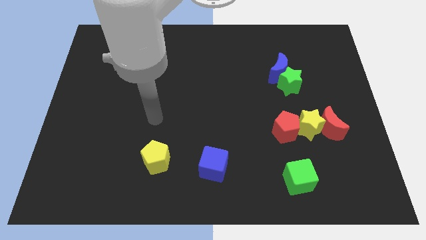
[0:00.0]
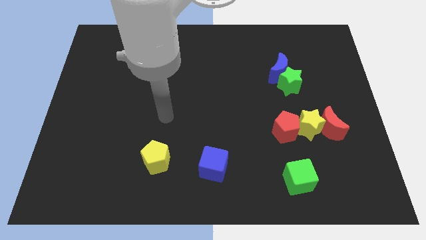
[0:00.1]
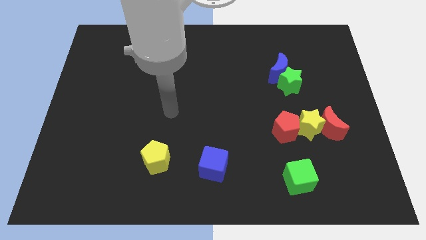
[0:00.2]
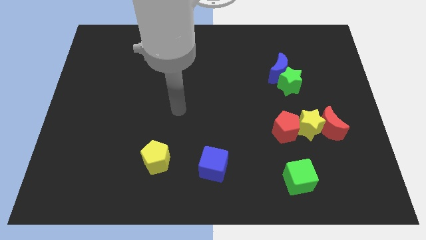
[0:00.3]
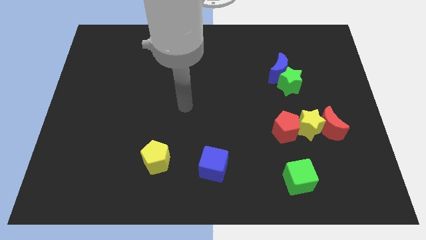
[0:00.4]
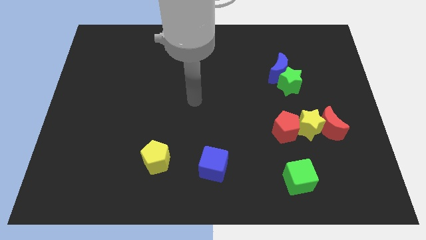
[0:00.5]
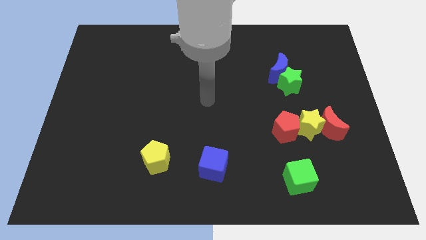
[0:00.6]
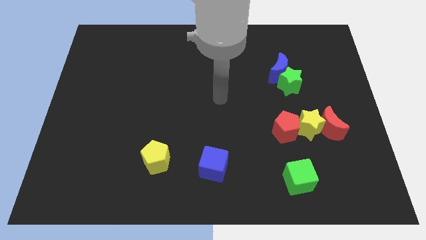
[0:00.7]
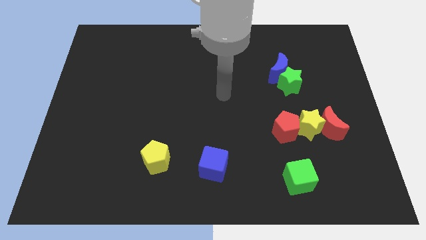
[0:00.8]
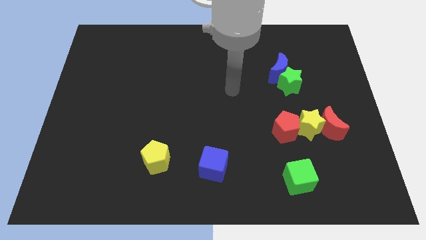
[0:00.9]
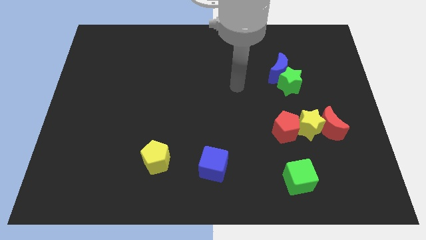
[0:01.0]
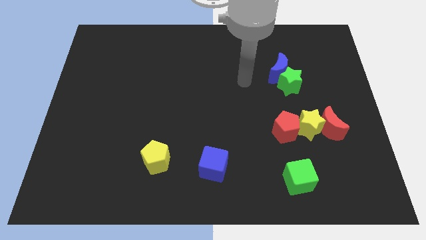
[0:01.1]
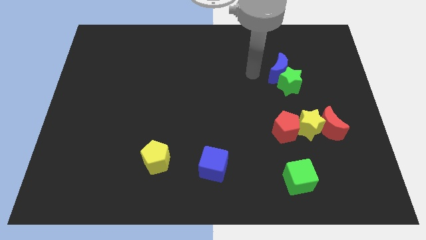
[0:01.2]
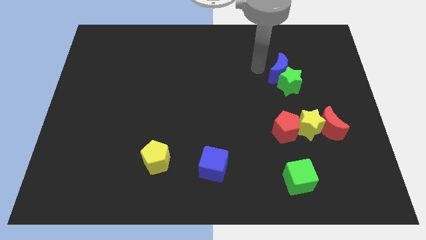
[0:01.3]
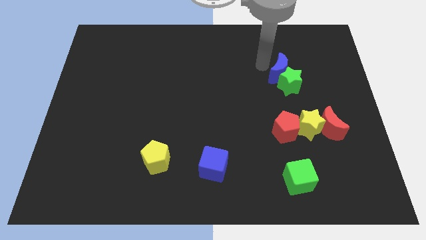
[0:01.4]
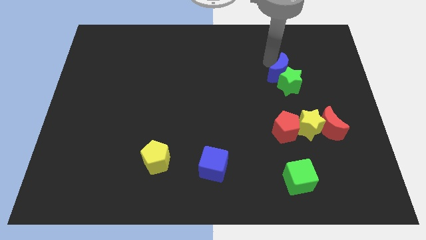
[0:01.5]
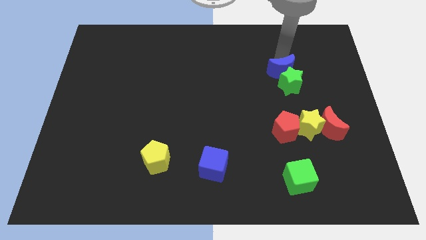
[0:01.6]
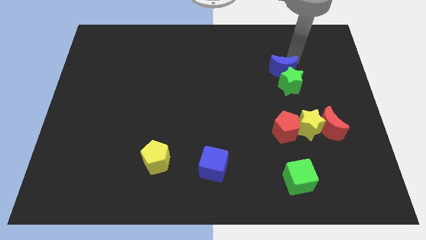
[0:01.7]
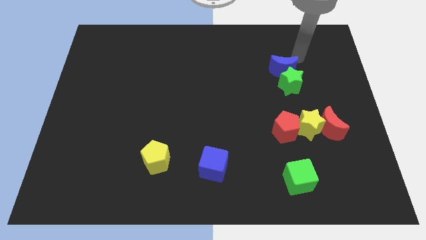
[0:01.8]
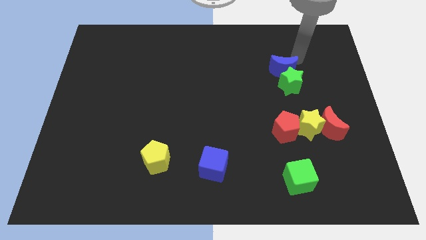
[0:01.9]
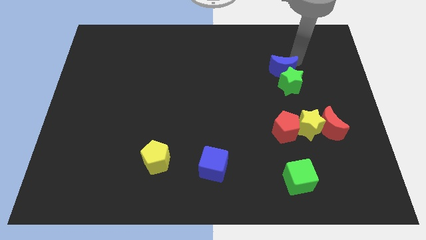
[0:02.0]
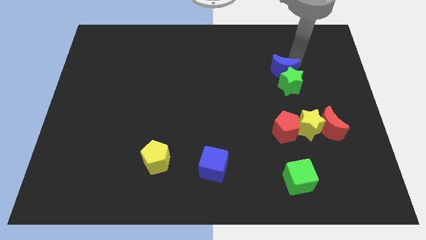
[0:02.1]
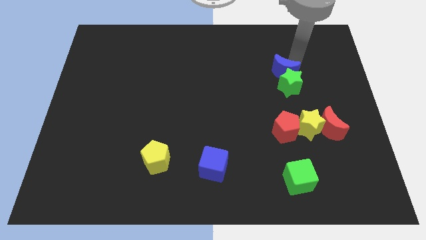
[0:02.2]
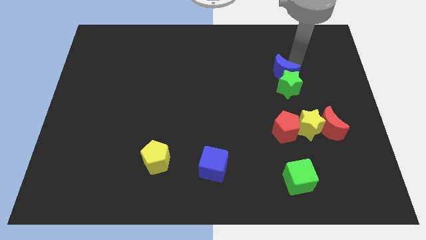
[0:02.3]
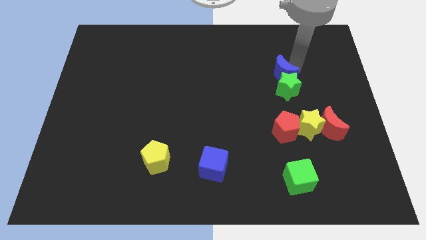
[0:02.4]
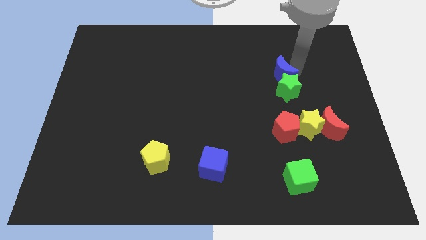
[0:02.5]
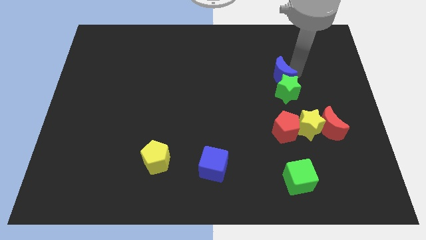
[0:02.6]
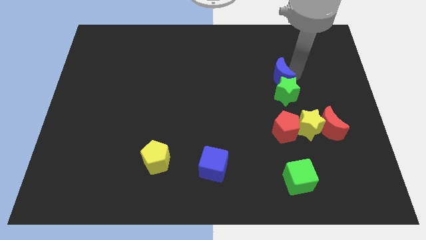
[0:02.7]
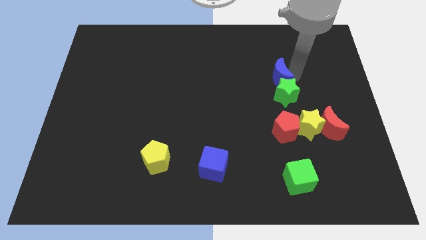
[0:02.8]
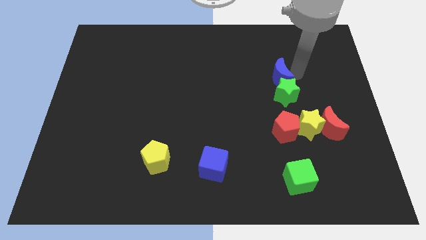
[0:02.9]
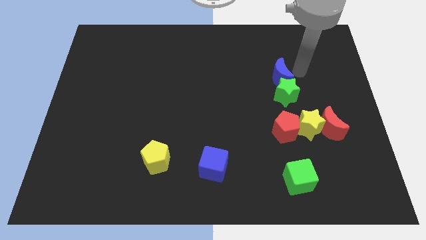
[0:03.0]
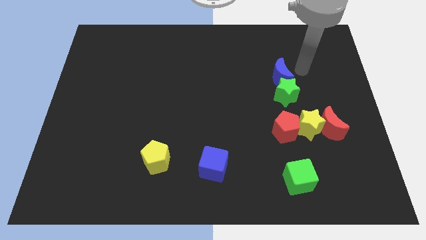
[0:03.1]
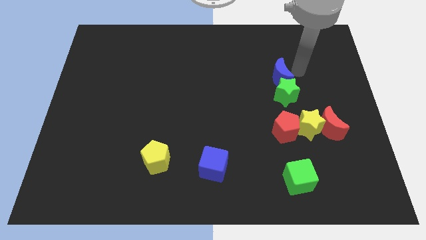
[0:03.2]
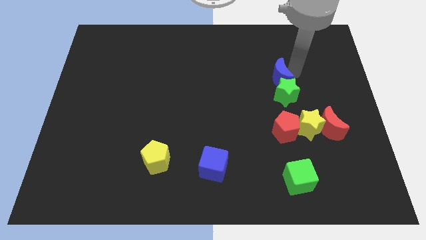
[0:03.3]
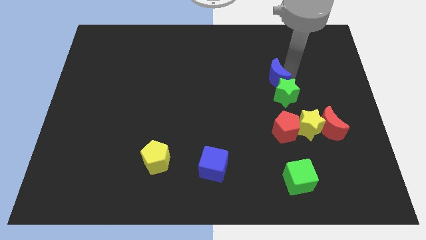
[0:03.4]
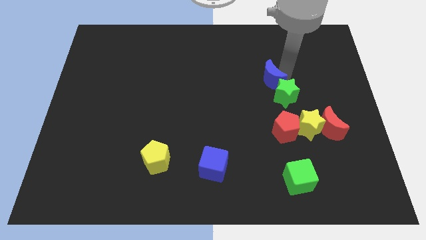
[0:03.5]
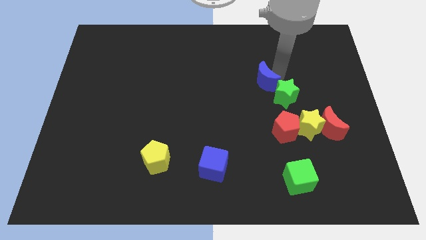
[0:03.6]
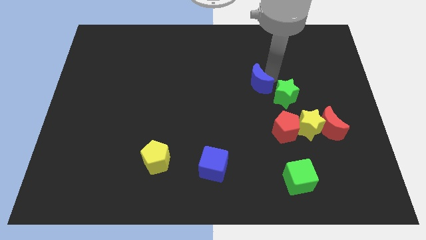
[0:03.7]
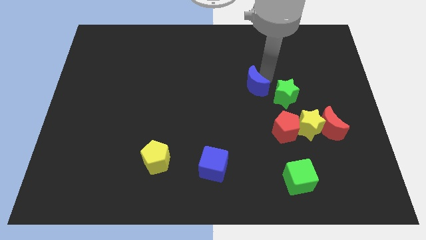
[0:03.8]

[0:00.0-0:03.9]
slide the blue moon down and left diagonally slightly

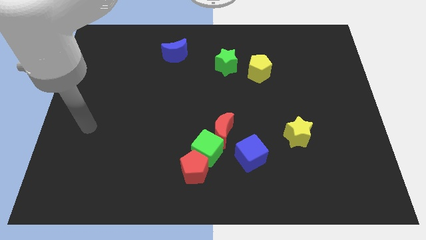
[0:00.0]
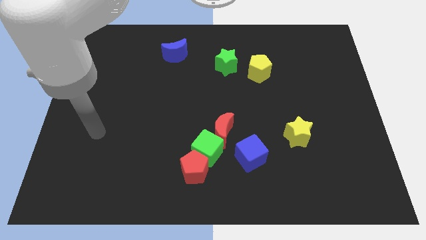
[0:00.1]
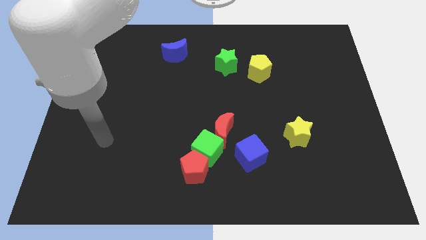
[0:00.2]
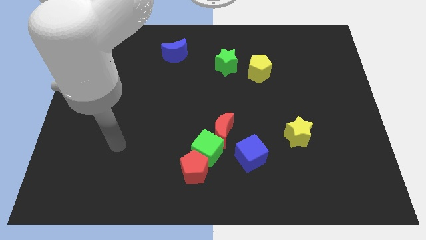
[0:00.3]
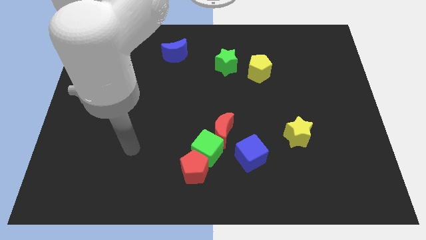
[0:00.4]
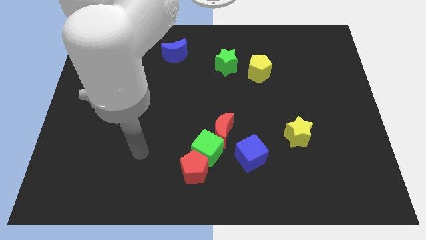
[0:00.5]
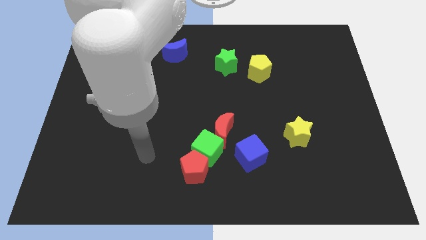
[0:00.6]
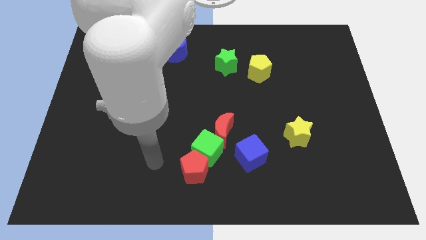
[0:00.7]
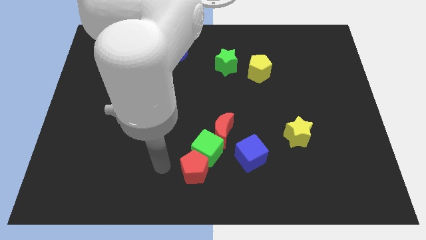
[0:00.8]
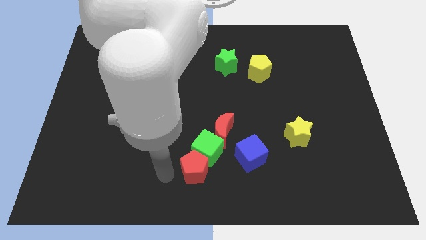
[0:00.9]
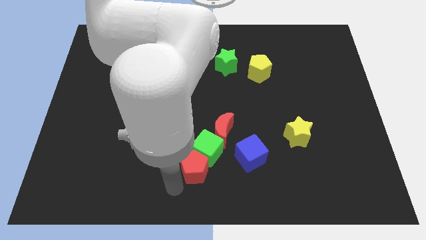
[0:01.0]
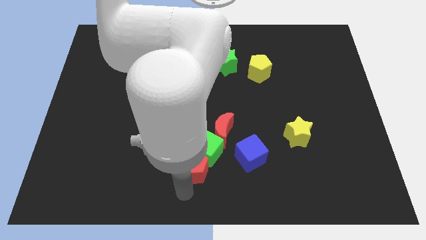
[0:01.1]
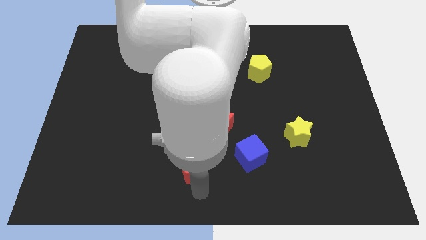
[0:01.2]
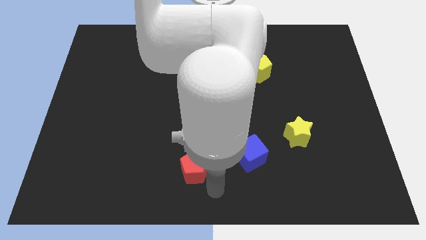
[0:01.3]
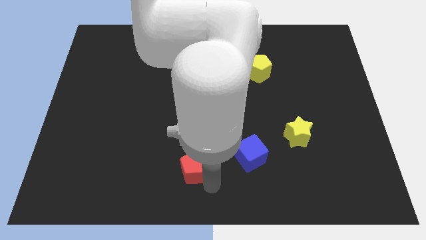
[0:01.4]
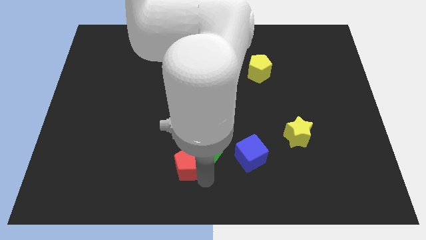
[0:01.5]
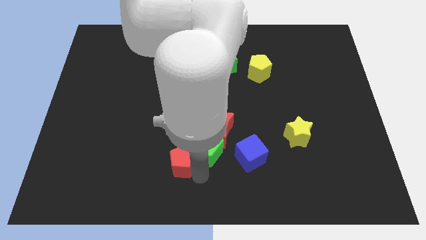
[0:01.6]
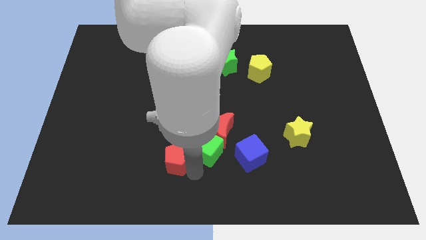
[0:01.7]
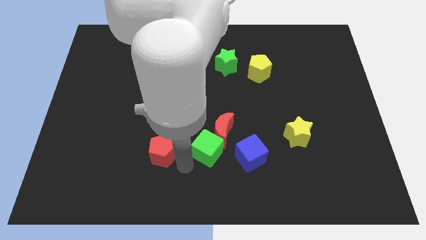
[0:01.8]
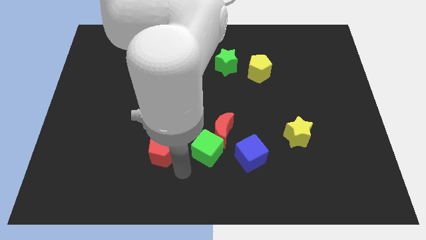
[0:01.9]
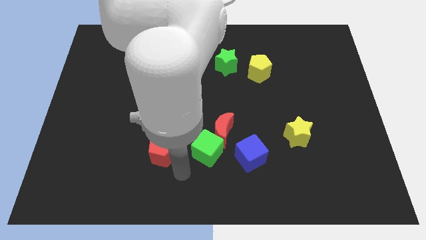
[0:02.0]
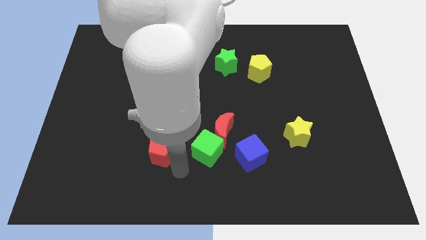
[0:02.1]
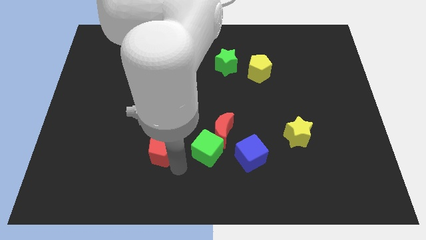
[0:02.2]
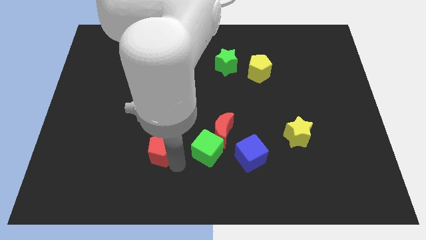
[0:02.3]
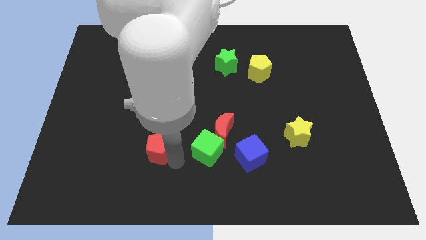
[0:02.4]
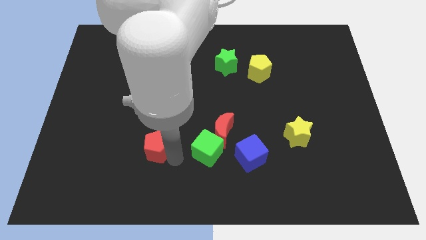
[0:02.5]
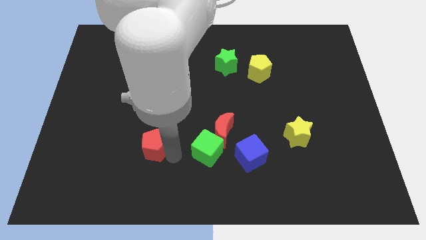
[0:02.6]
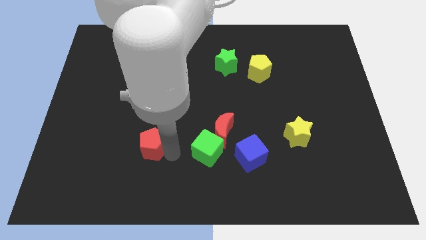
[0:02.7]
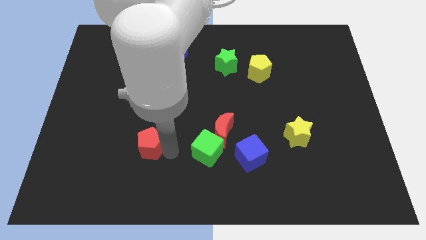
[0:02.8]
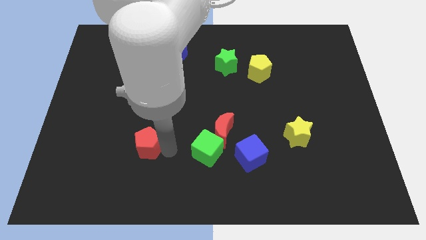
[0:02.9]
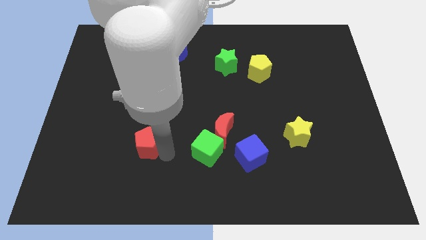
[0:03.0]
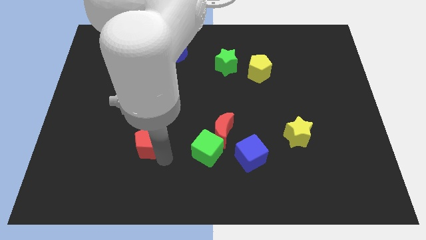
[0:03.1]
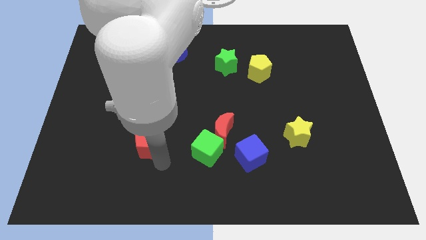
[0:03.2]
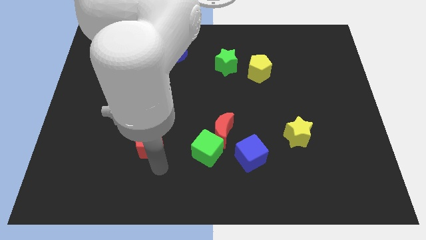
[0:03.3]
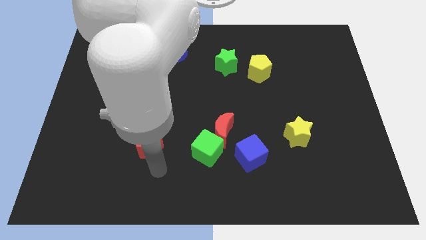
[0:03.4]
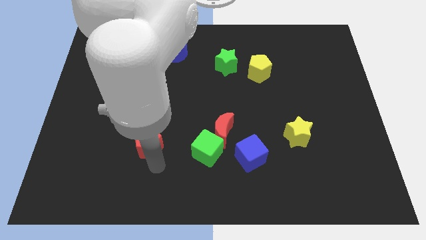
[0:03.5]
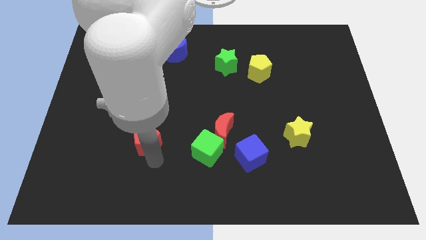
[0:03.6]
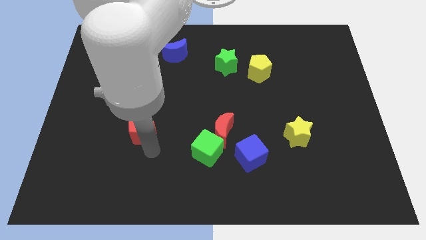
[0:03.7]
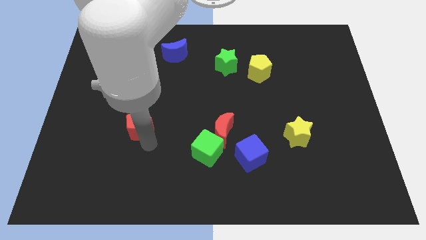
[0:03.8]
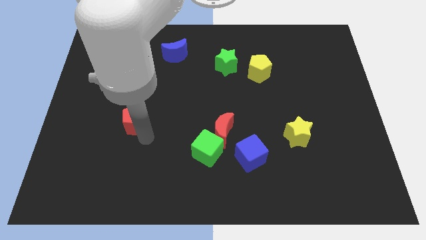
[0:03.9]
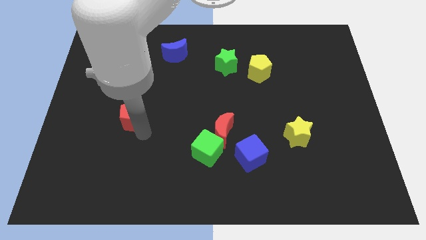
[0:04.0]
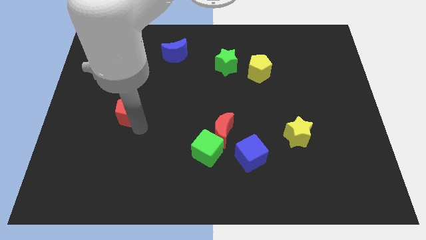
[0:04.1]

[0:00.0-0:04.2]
move the red pentagon diagonally upwards and left
